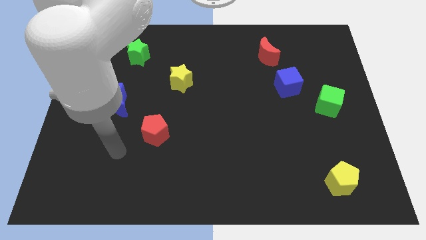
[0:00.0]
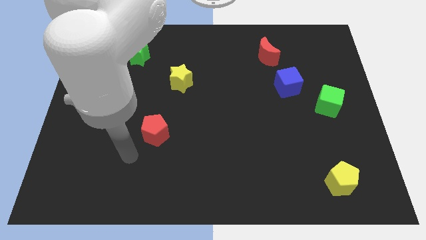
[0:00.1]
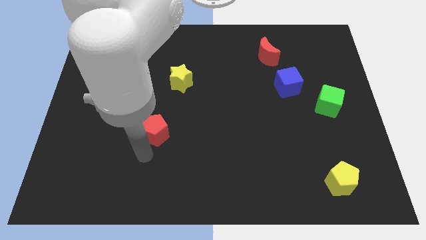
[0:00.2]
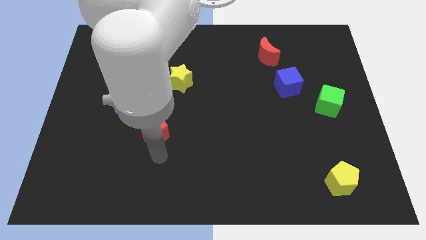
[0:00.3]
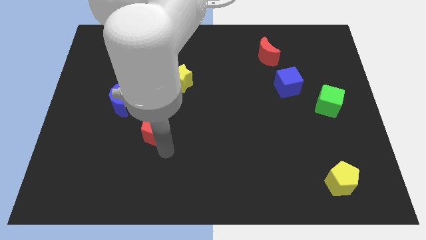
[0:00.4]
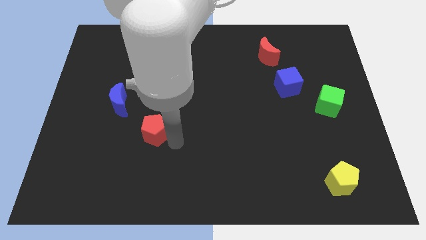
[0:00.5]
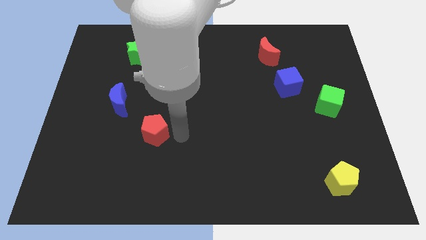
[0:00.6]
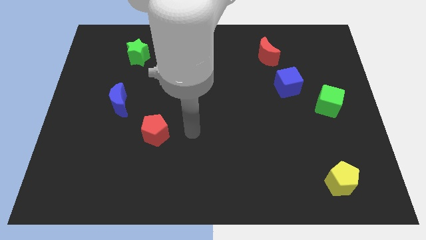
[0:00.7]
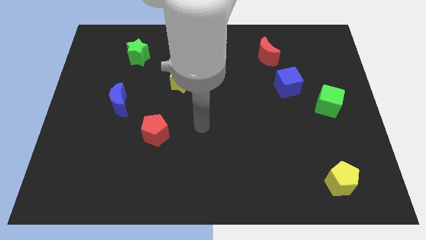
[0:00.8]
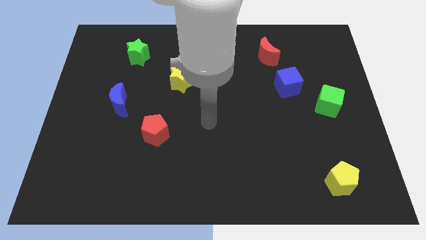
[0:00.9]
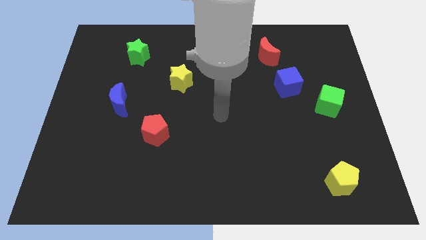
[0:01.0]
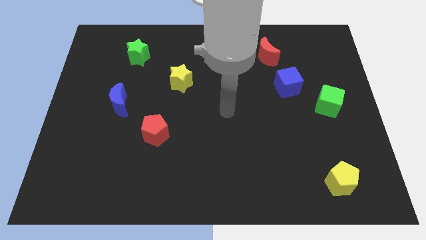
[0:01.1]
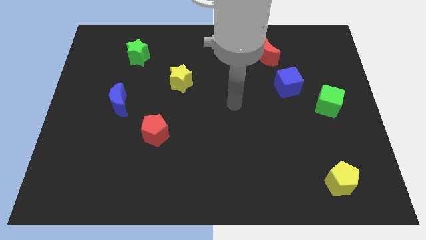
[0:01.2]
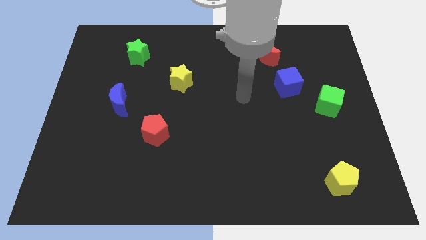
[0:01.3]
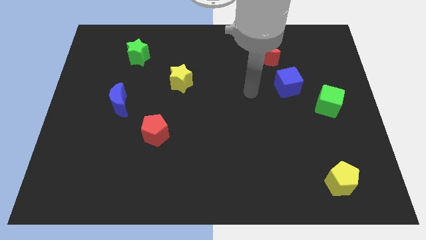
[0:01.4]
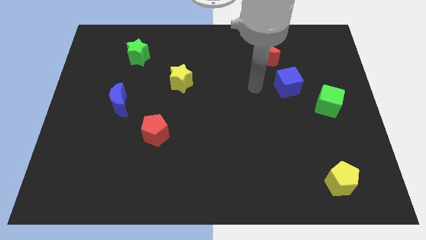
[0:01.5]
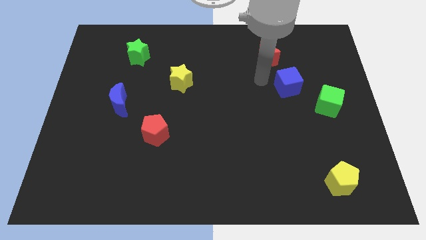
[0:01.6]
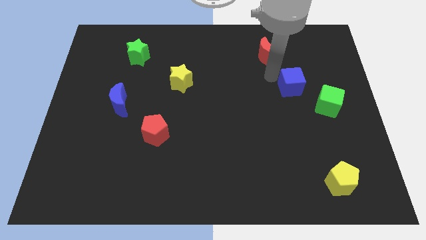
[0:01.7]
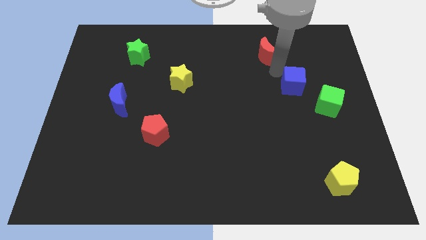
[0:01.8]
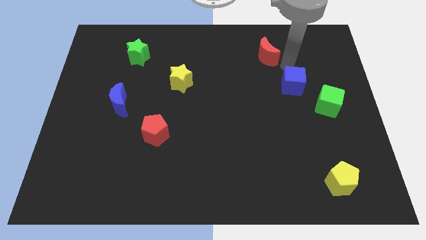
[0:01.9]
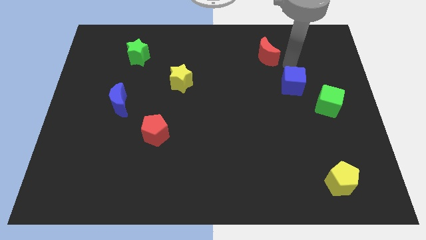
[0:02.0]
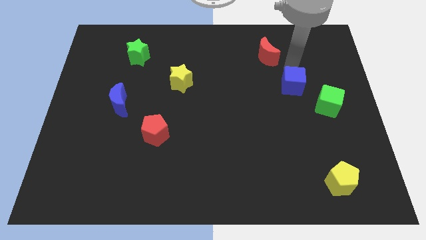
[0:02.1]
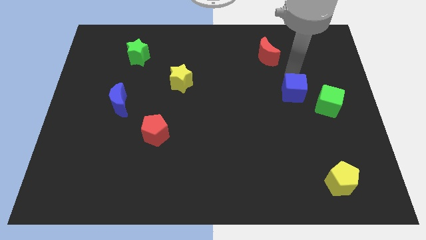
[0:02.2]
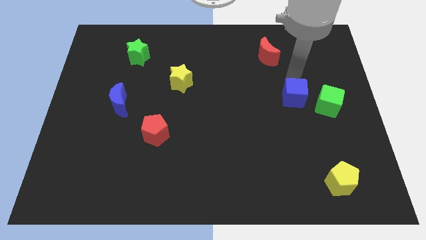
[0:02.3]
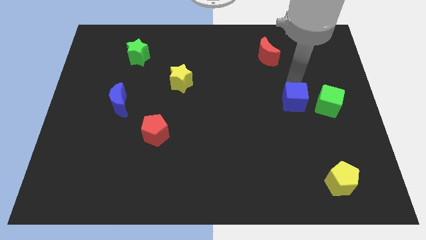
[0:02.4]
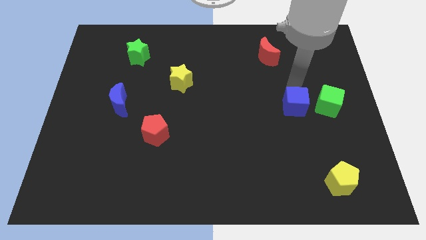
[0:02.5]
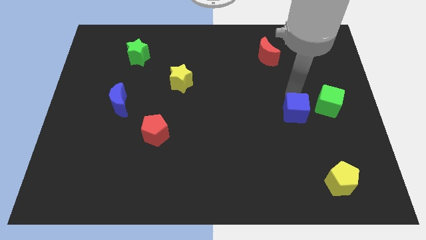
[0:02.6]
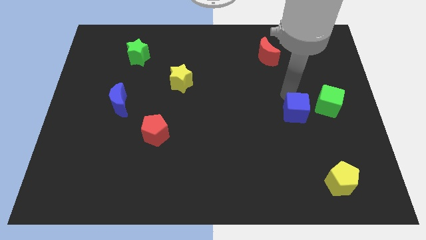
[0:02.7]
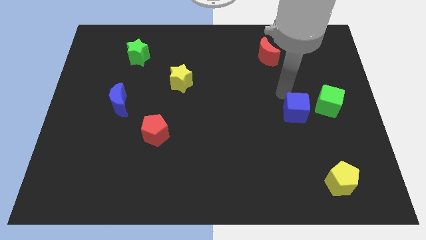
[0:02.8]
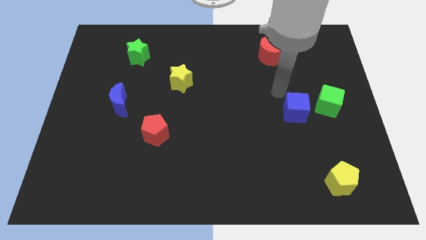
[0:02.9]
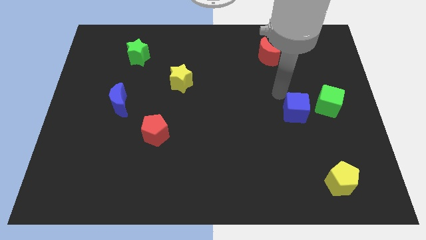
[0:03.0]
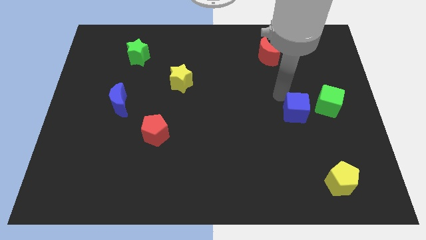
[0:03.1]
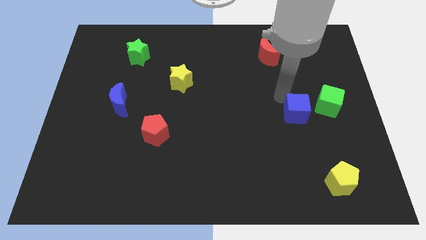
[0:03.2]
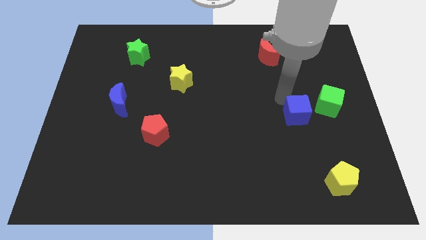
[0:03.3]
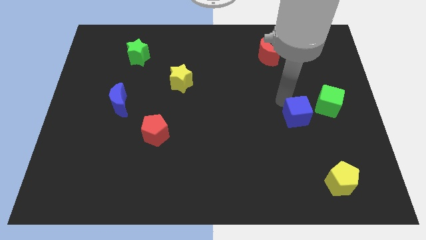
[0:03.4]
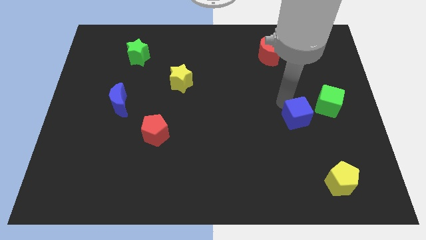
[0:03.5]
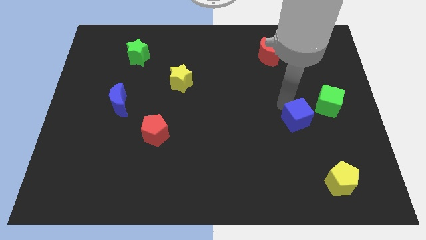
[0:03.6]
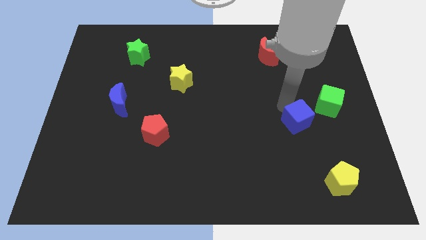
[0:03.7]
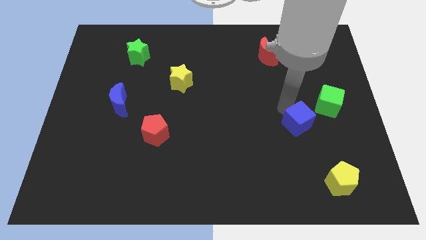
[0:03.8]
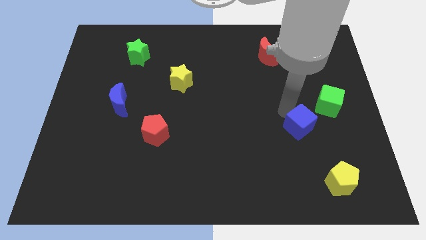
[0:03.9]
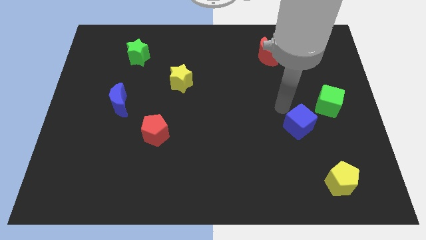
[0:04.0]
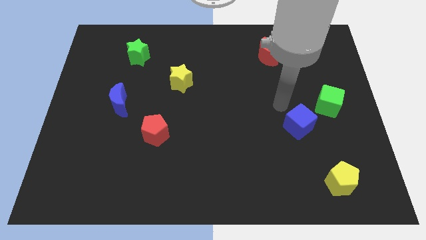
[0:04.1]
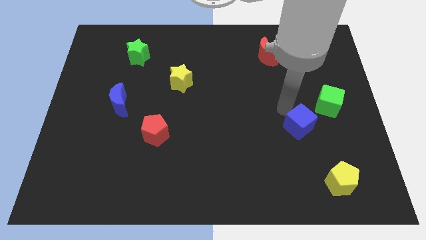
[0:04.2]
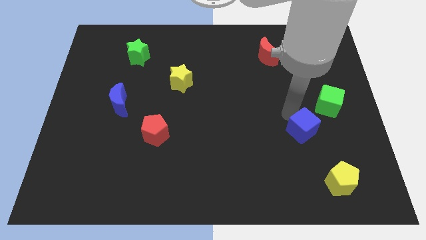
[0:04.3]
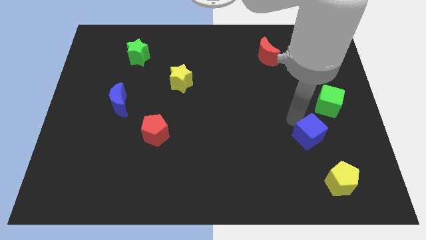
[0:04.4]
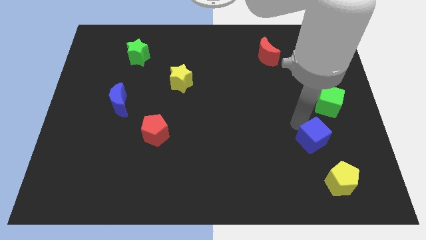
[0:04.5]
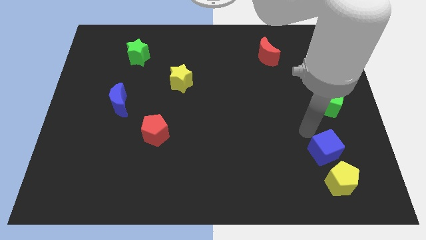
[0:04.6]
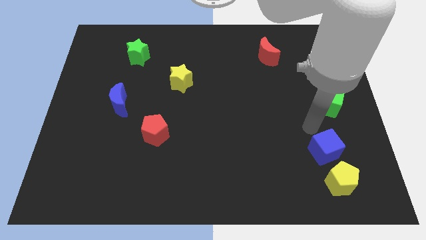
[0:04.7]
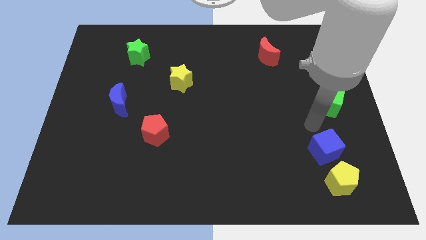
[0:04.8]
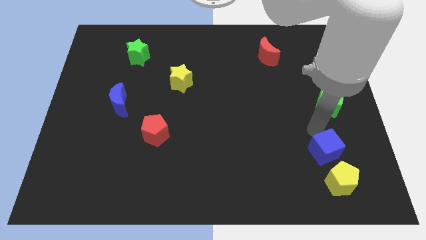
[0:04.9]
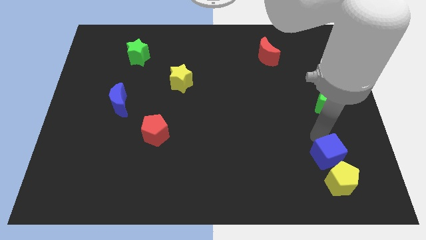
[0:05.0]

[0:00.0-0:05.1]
put the blue cube to the yellow pentagon

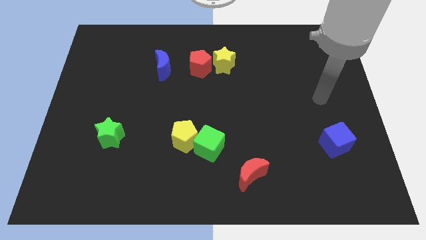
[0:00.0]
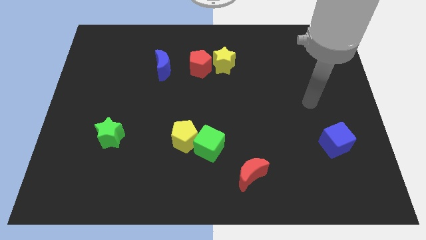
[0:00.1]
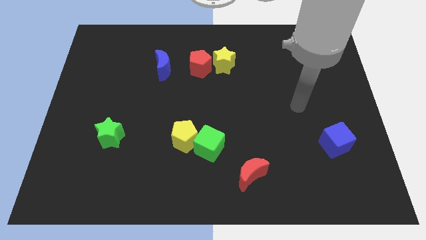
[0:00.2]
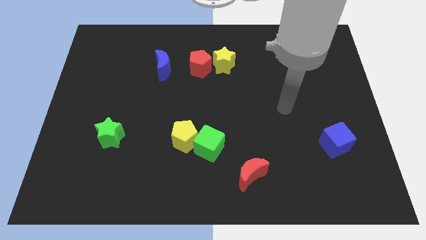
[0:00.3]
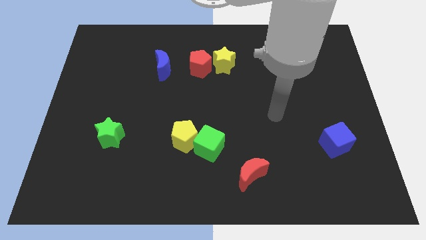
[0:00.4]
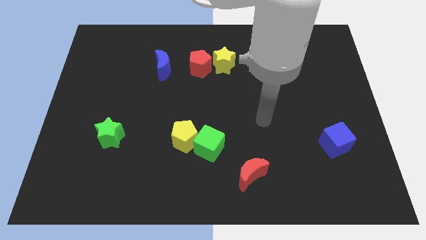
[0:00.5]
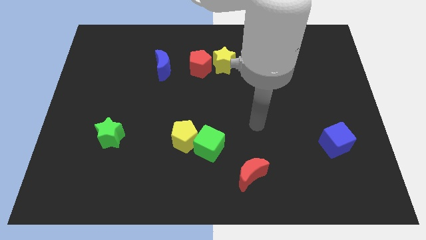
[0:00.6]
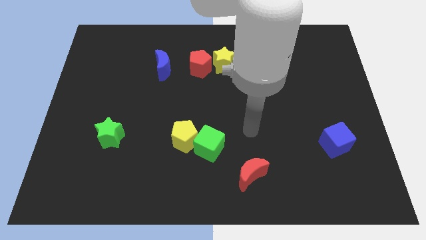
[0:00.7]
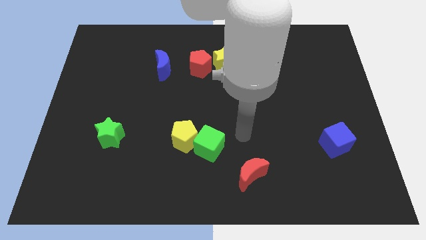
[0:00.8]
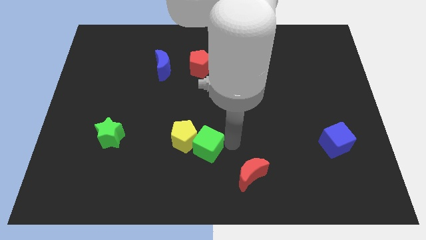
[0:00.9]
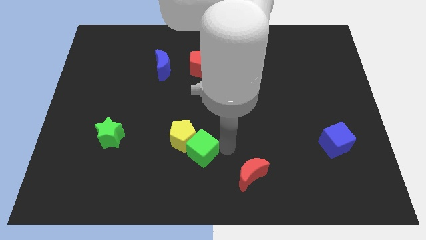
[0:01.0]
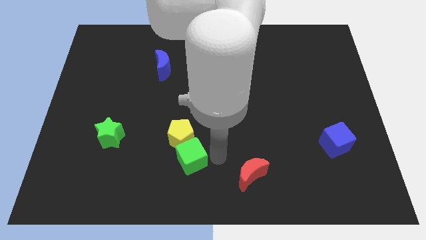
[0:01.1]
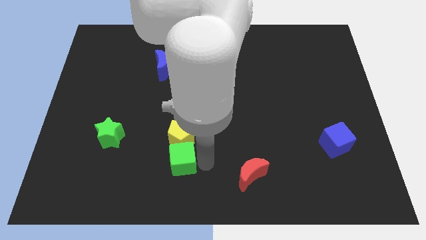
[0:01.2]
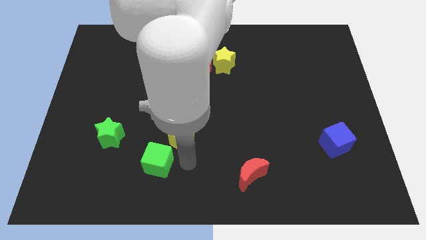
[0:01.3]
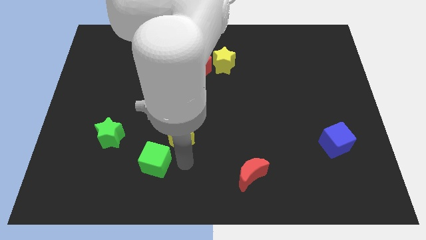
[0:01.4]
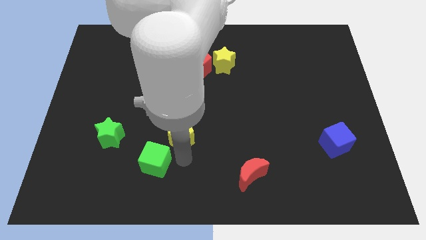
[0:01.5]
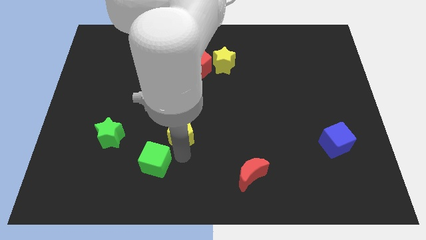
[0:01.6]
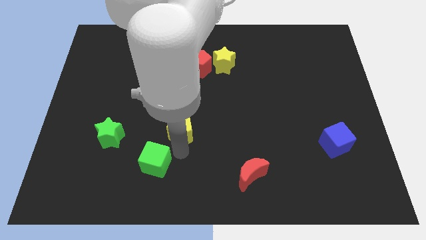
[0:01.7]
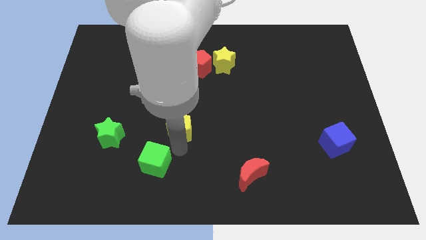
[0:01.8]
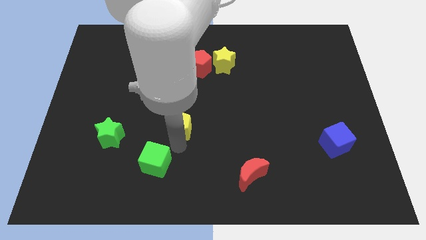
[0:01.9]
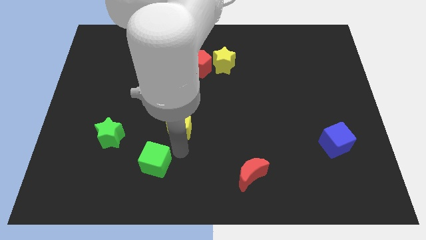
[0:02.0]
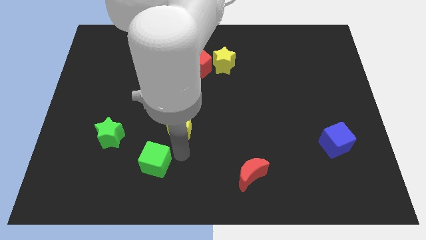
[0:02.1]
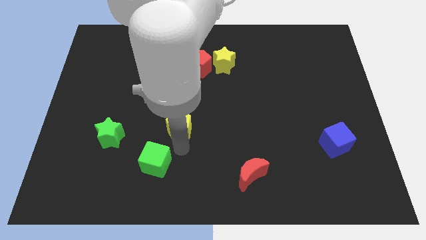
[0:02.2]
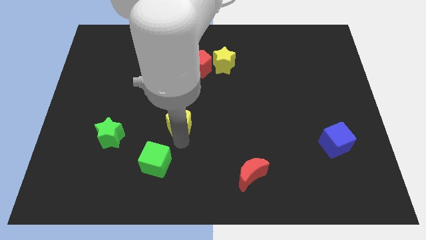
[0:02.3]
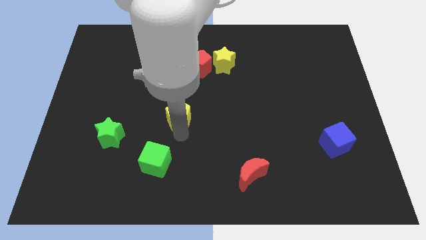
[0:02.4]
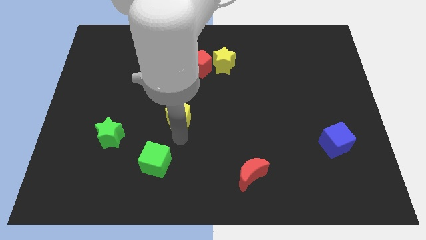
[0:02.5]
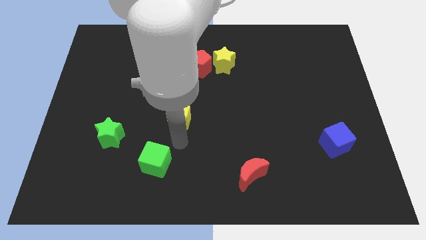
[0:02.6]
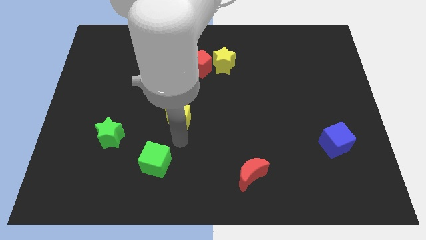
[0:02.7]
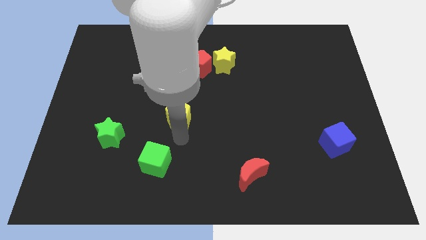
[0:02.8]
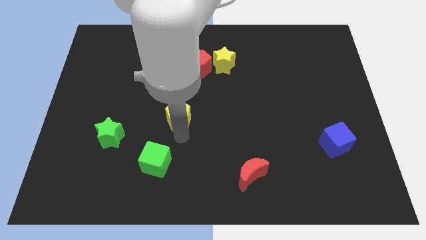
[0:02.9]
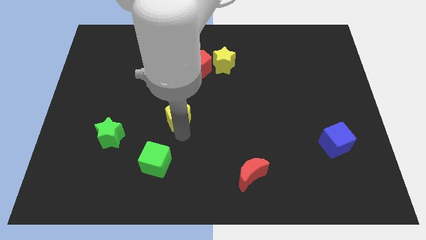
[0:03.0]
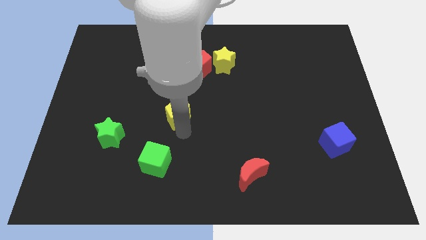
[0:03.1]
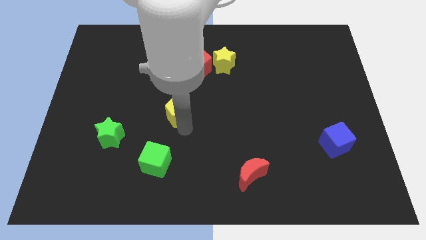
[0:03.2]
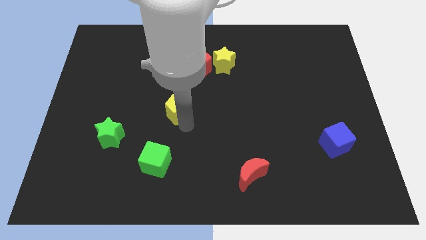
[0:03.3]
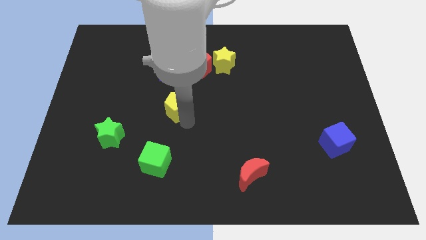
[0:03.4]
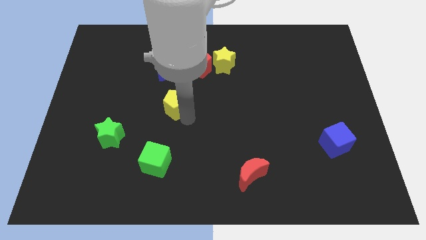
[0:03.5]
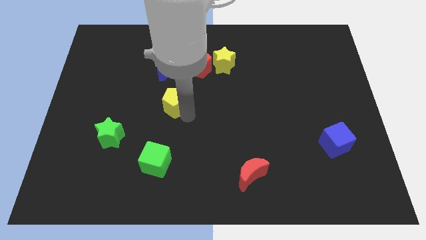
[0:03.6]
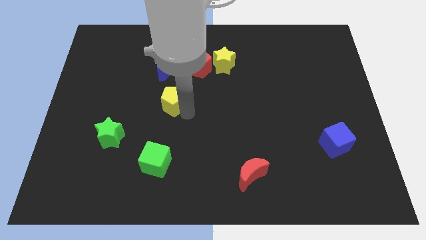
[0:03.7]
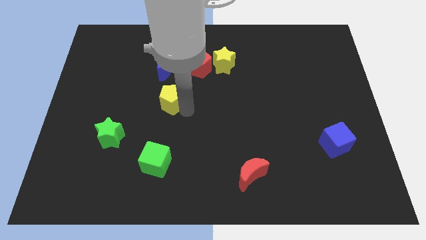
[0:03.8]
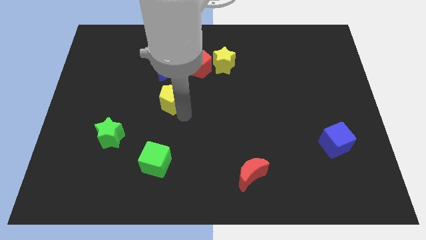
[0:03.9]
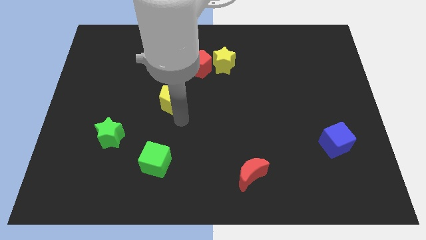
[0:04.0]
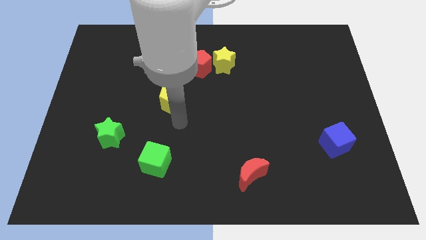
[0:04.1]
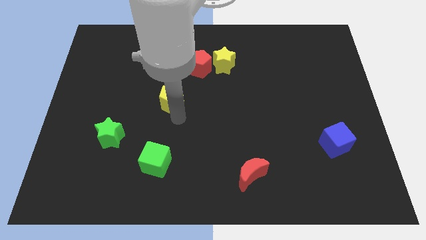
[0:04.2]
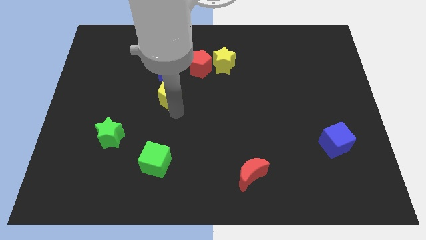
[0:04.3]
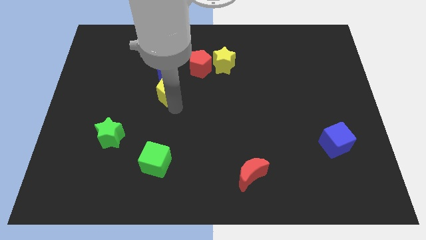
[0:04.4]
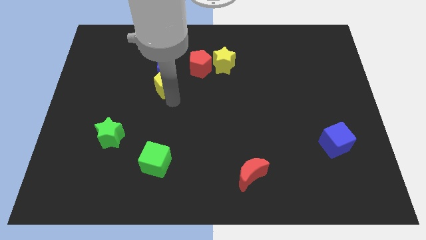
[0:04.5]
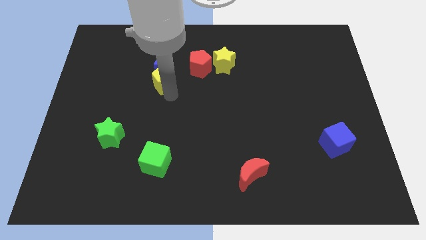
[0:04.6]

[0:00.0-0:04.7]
move the yellow pentagon next to the blue moon
